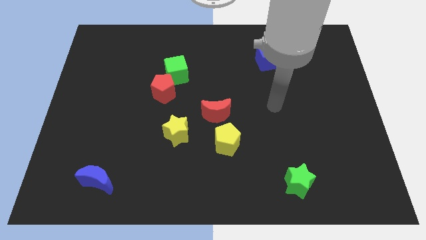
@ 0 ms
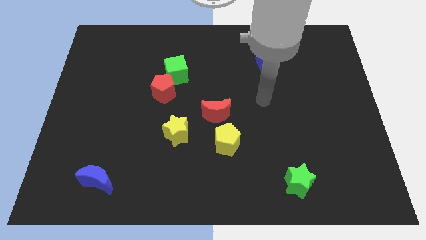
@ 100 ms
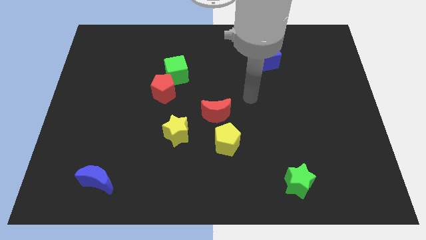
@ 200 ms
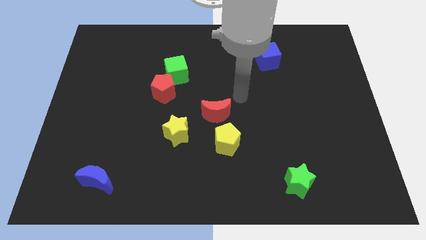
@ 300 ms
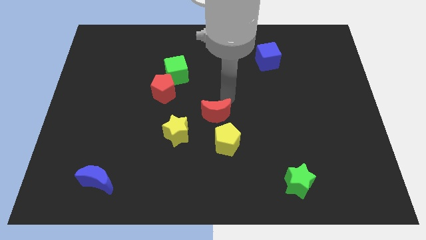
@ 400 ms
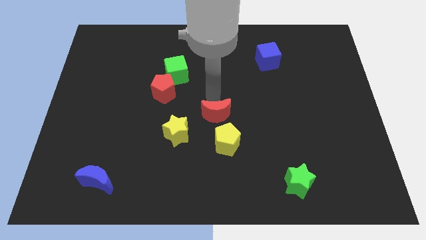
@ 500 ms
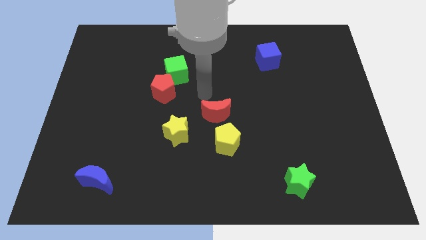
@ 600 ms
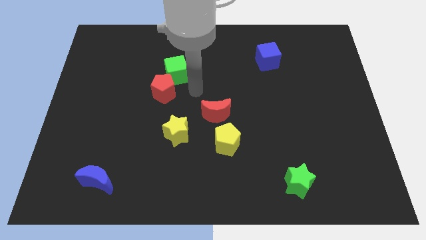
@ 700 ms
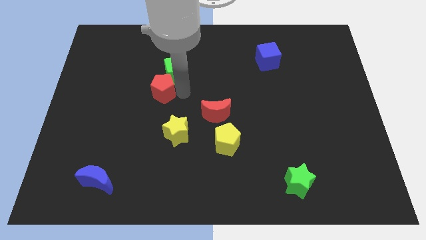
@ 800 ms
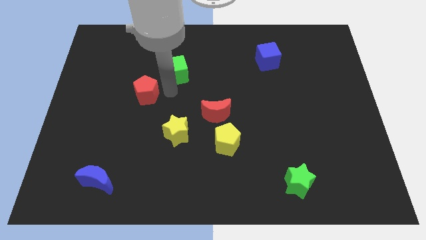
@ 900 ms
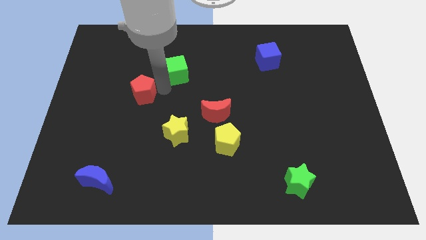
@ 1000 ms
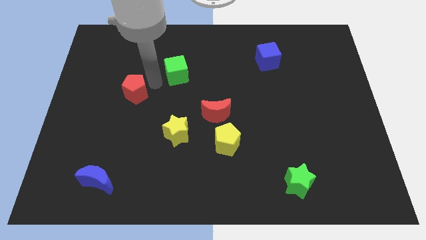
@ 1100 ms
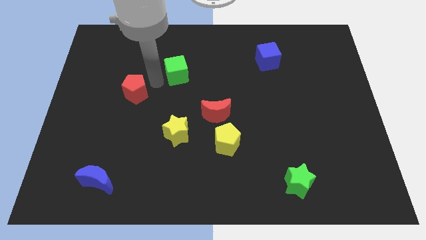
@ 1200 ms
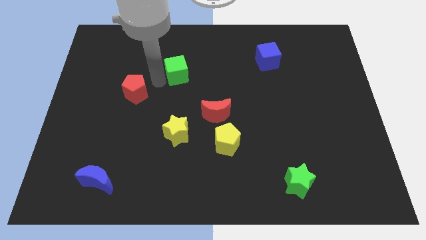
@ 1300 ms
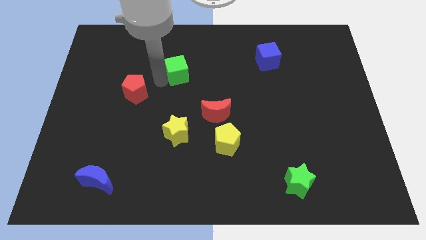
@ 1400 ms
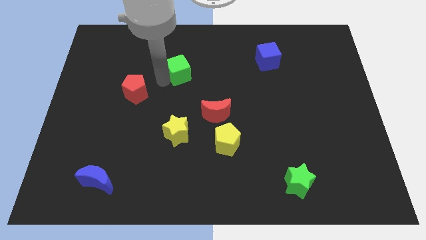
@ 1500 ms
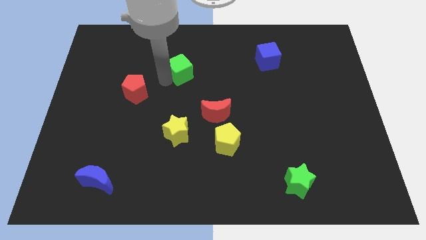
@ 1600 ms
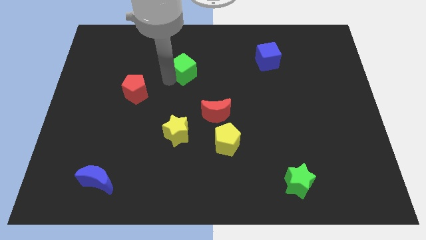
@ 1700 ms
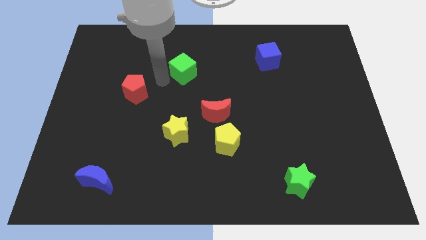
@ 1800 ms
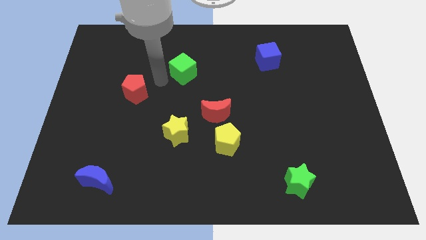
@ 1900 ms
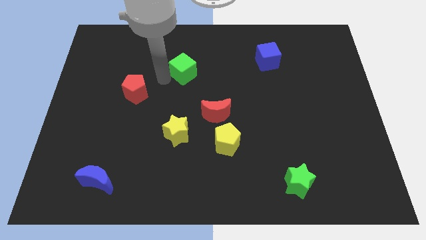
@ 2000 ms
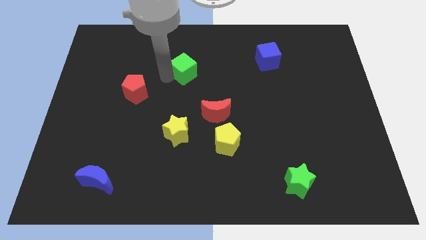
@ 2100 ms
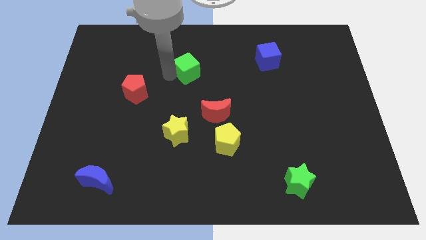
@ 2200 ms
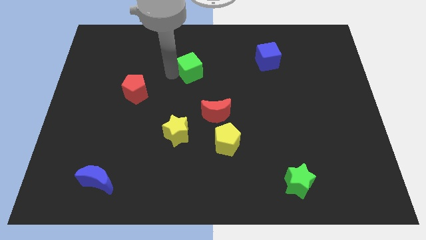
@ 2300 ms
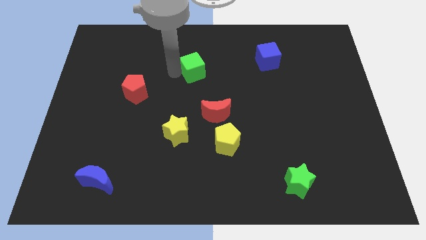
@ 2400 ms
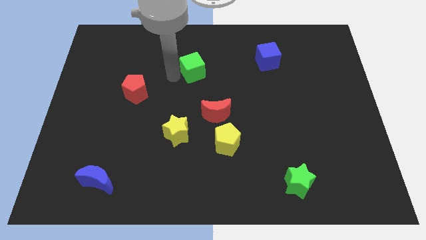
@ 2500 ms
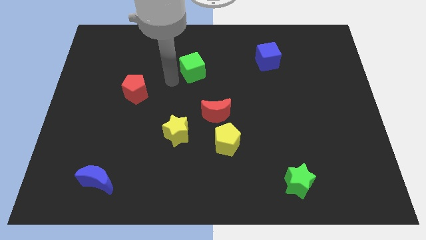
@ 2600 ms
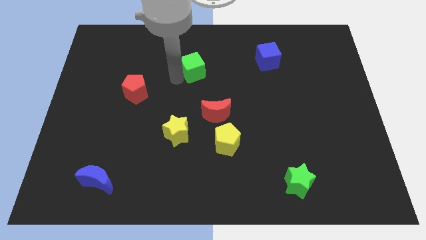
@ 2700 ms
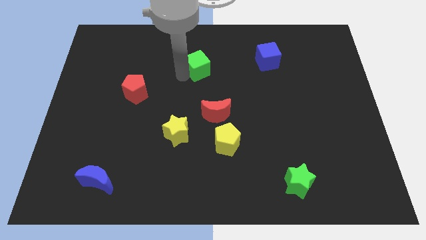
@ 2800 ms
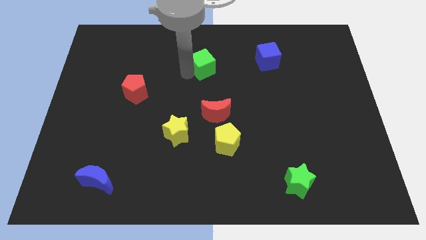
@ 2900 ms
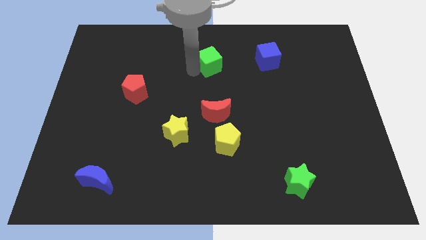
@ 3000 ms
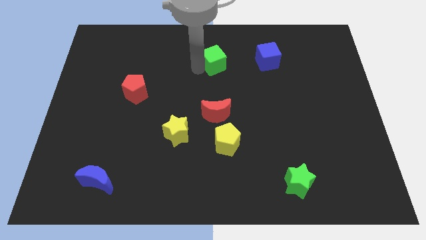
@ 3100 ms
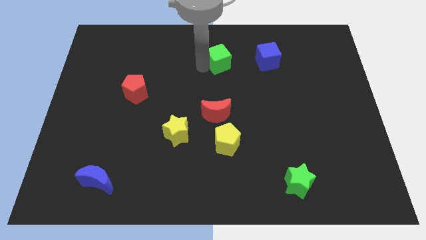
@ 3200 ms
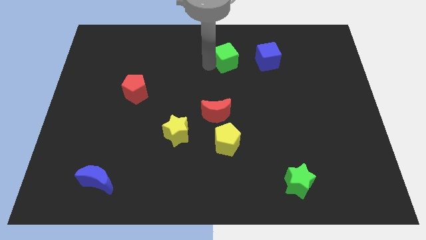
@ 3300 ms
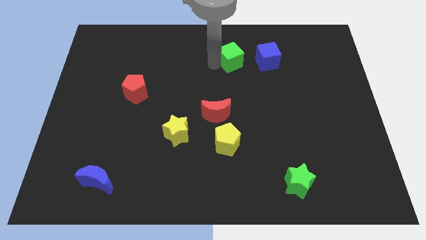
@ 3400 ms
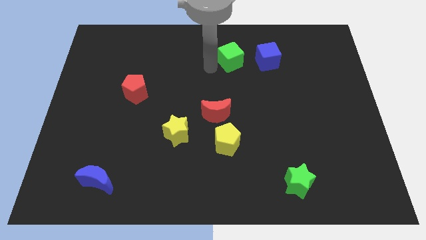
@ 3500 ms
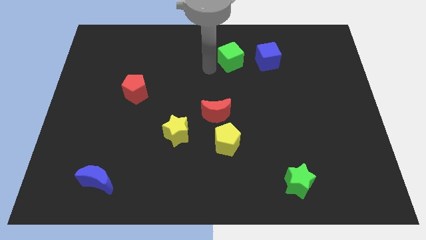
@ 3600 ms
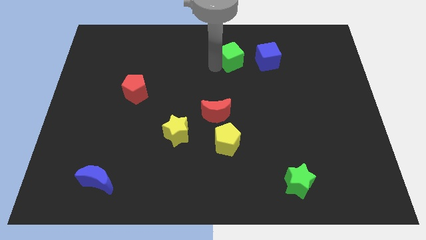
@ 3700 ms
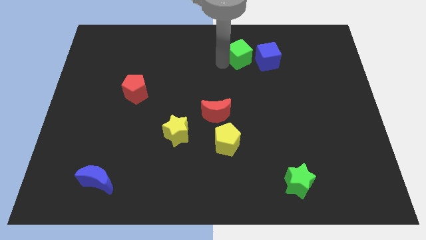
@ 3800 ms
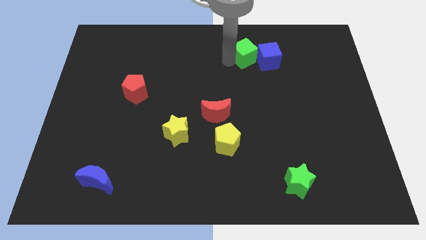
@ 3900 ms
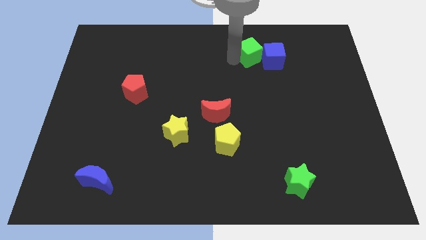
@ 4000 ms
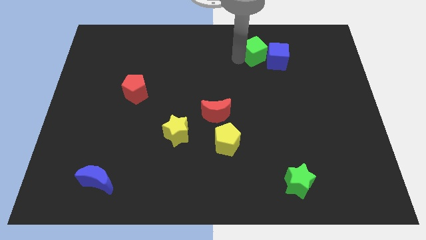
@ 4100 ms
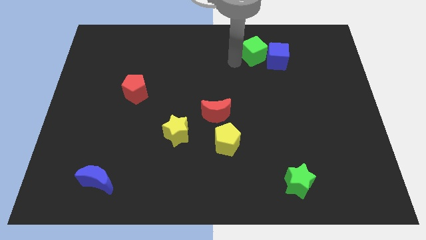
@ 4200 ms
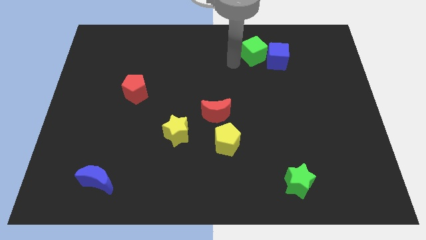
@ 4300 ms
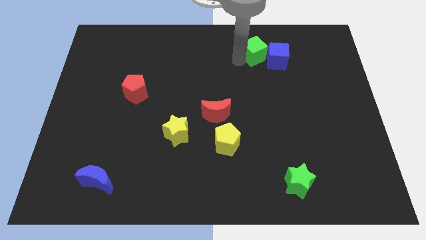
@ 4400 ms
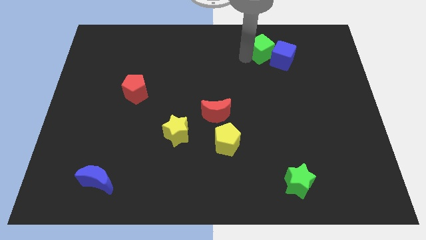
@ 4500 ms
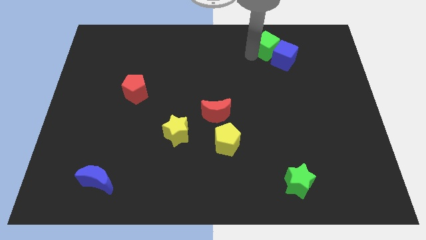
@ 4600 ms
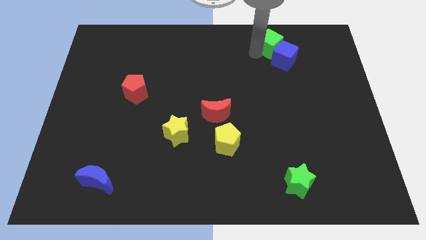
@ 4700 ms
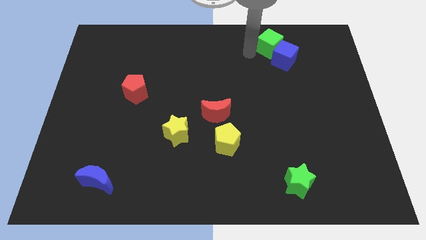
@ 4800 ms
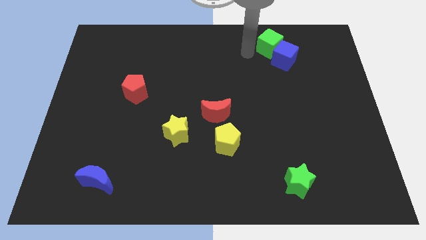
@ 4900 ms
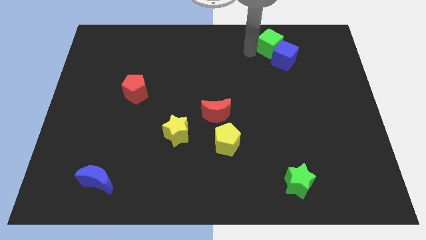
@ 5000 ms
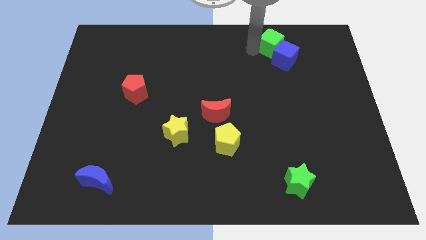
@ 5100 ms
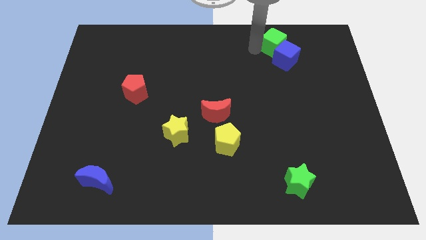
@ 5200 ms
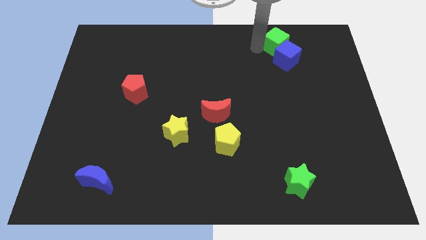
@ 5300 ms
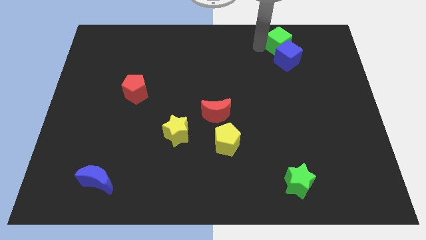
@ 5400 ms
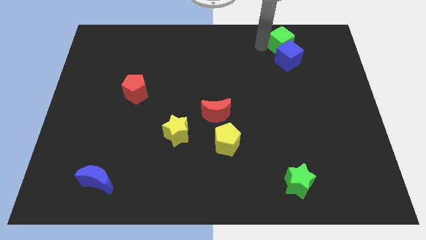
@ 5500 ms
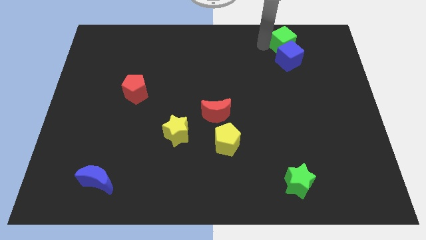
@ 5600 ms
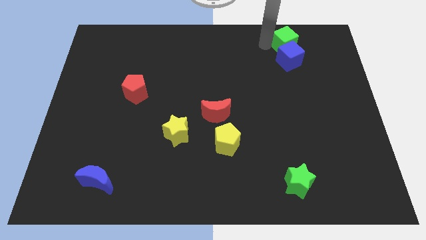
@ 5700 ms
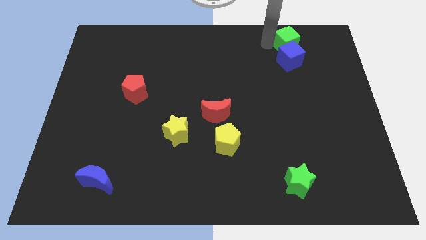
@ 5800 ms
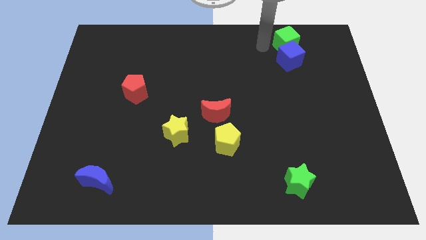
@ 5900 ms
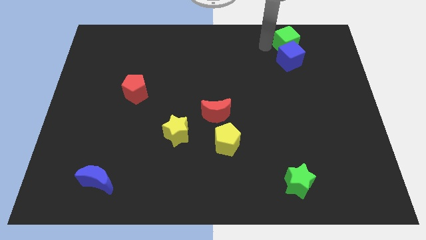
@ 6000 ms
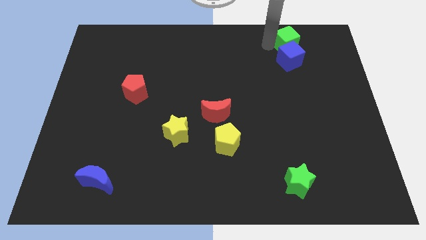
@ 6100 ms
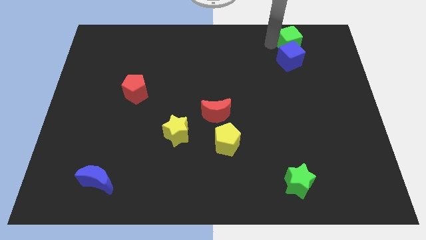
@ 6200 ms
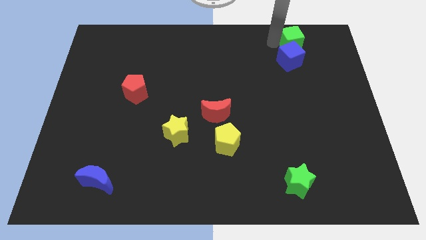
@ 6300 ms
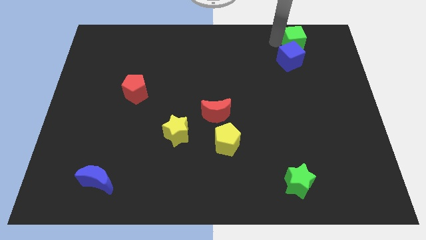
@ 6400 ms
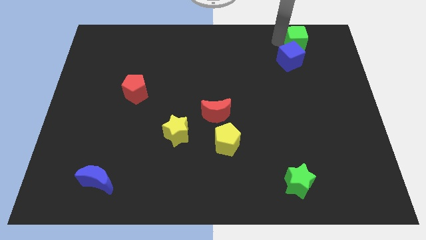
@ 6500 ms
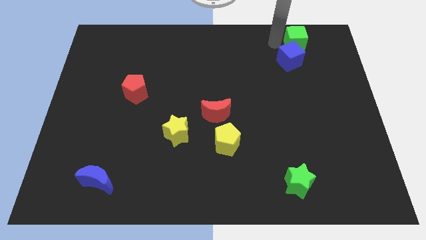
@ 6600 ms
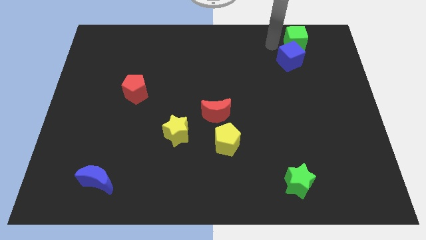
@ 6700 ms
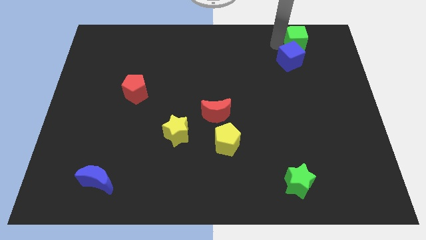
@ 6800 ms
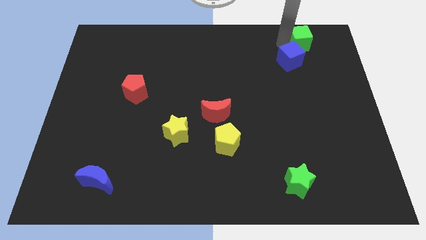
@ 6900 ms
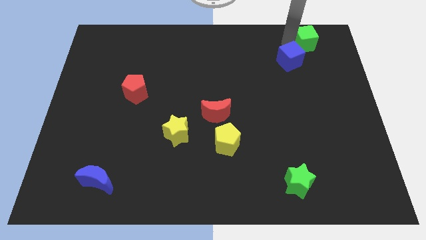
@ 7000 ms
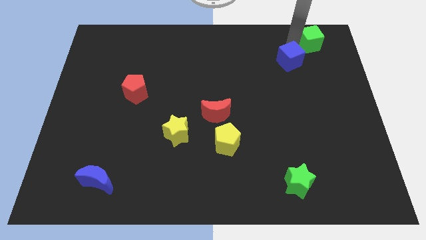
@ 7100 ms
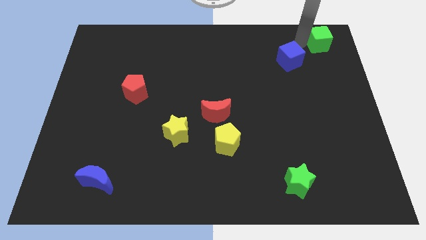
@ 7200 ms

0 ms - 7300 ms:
move the green cube to the top right
